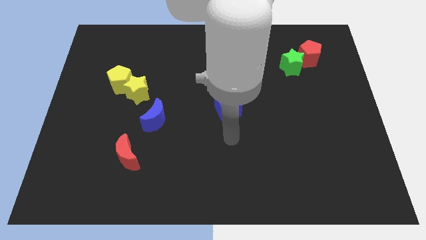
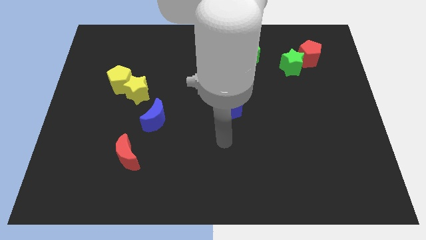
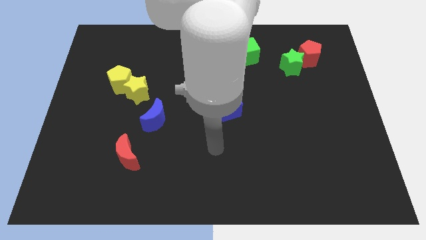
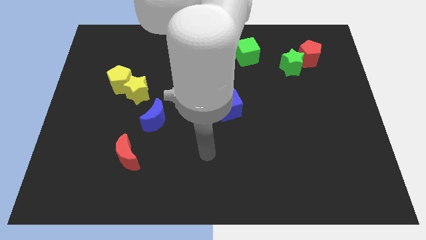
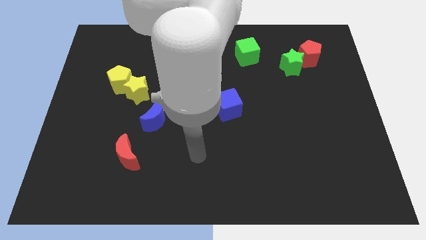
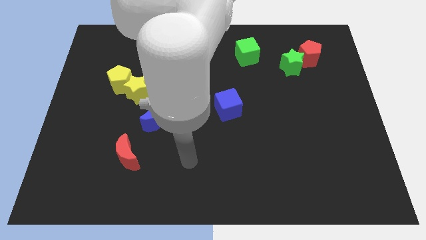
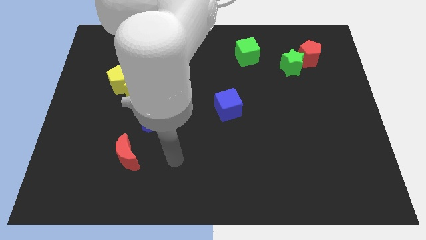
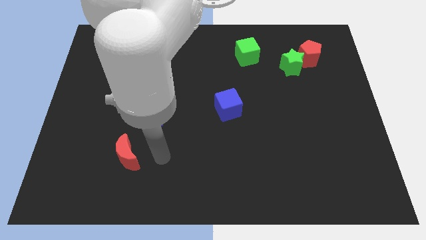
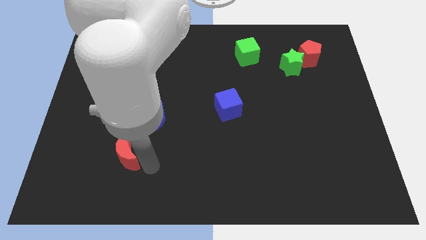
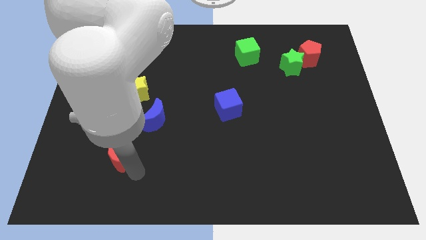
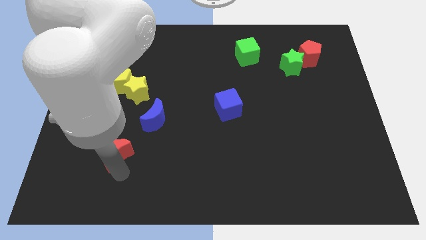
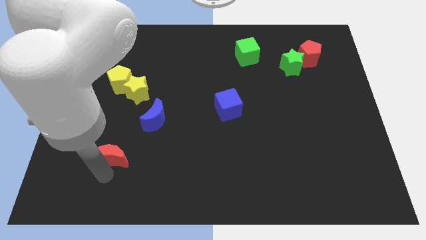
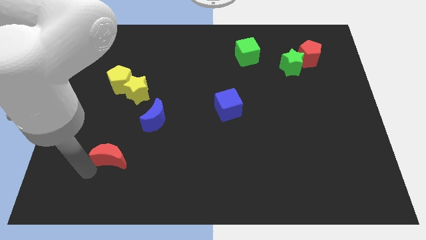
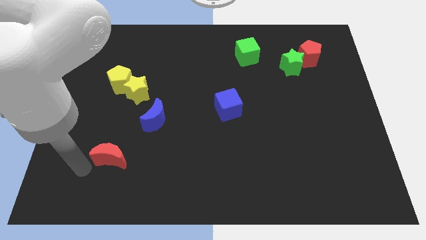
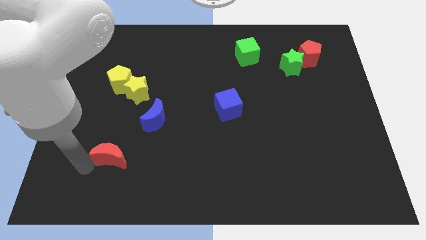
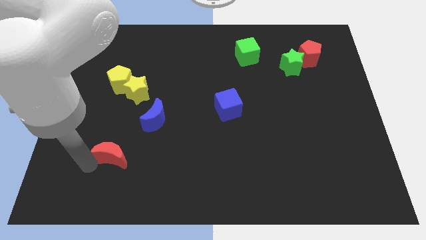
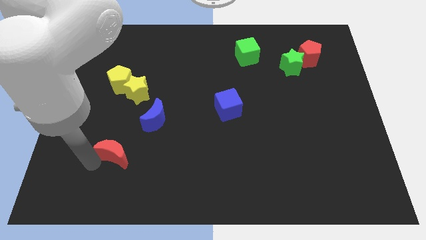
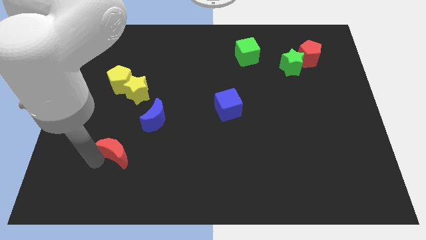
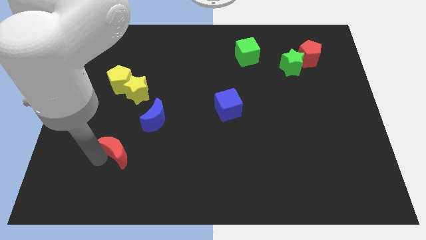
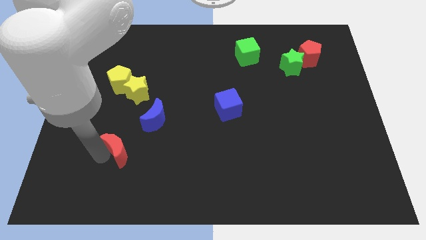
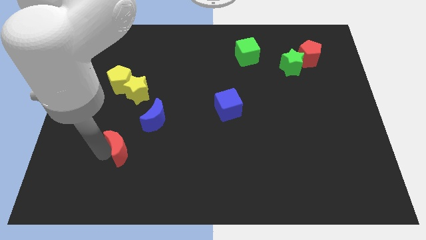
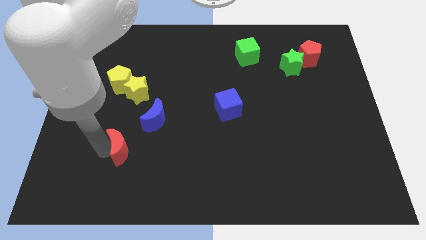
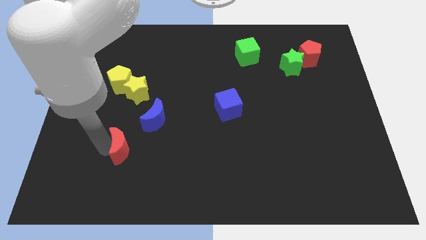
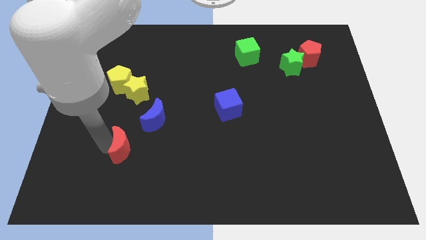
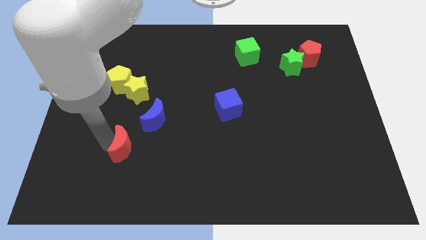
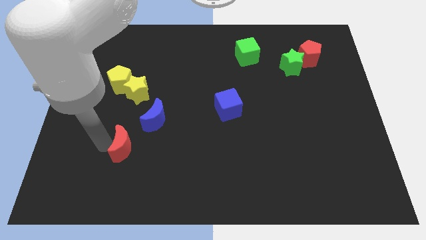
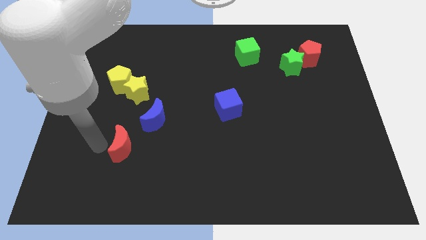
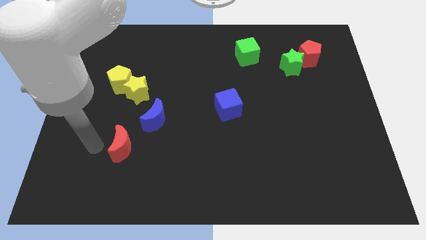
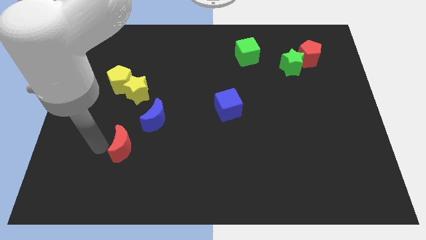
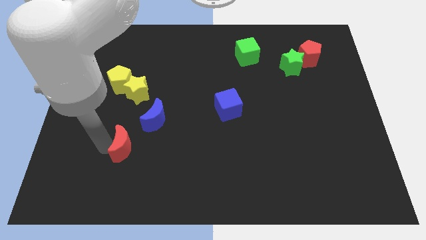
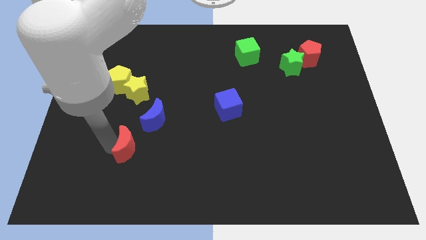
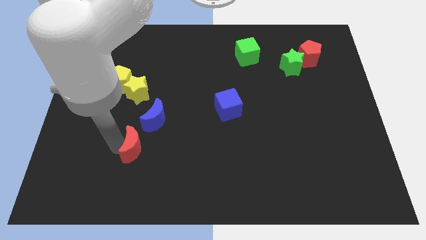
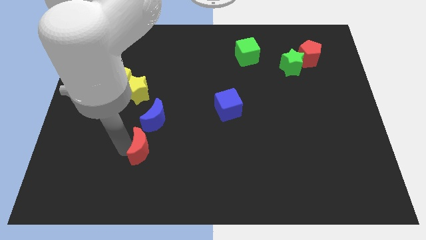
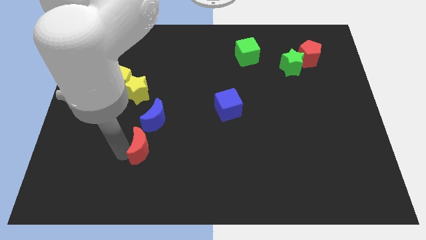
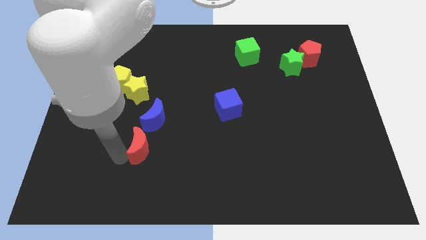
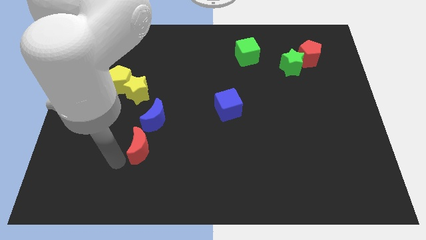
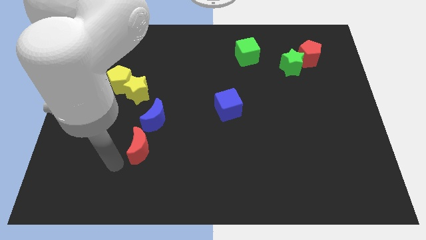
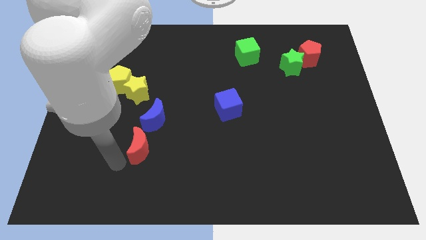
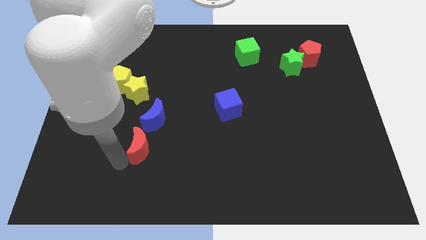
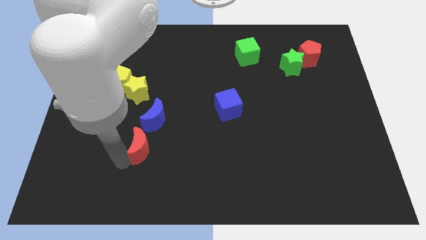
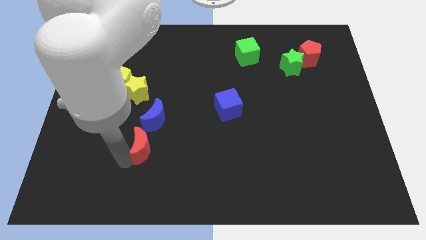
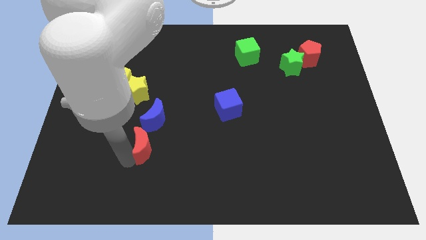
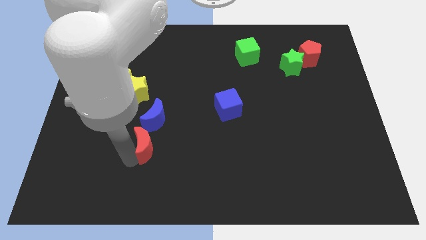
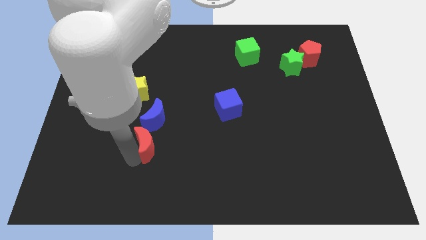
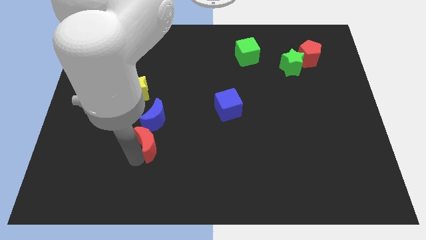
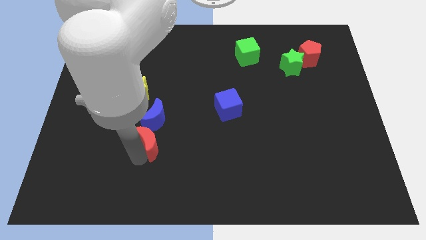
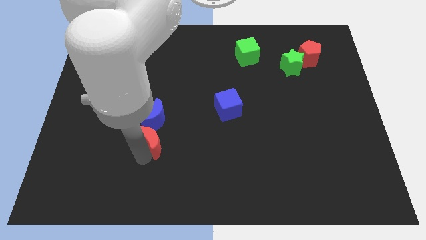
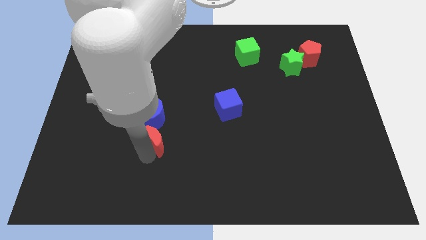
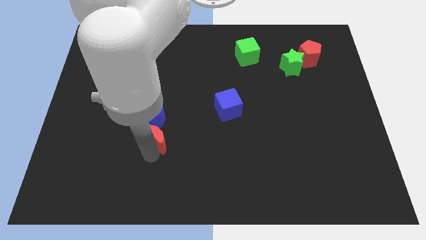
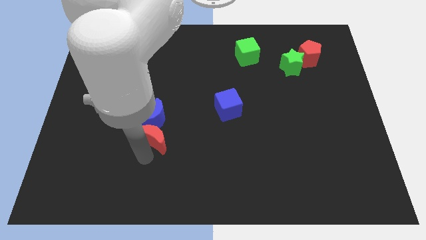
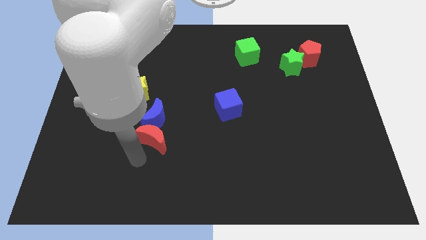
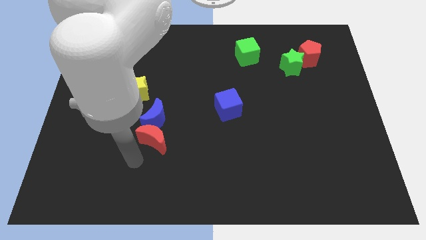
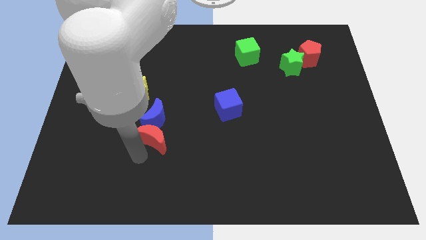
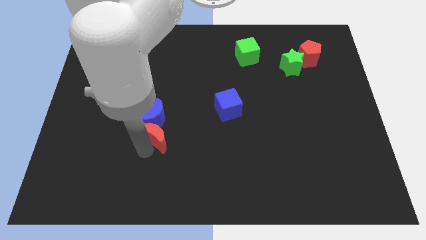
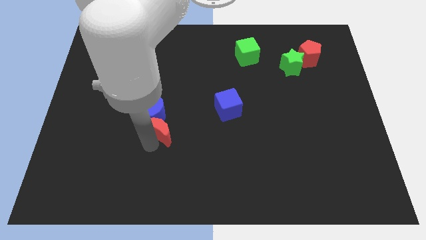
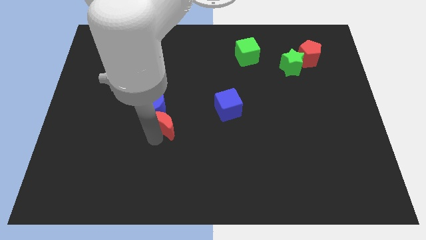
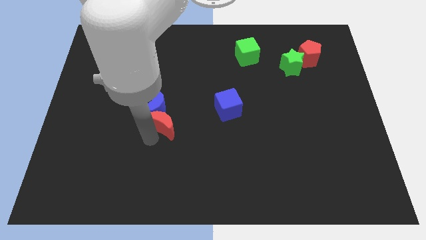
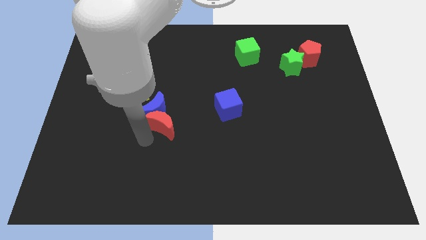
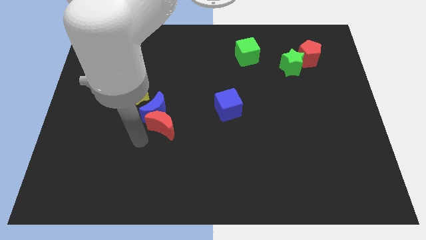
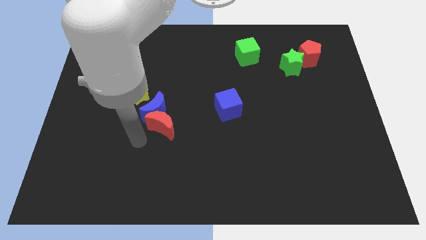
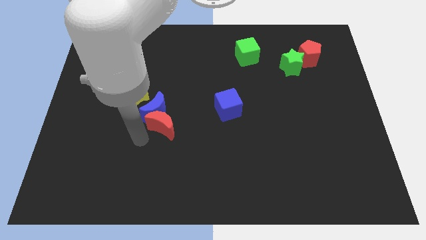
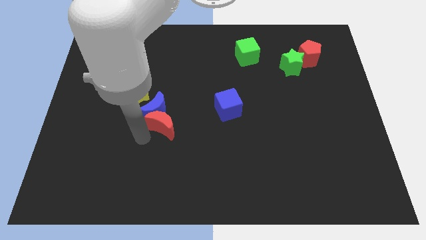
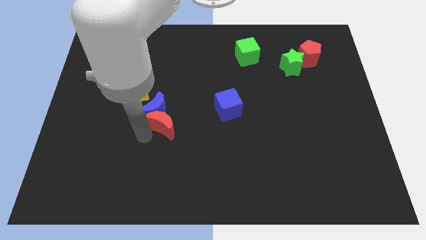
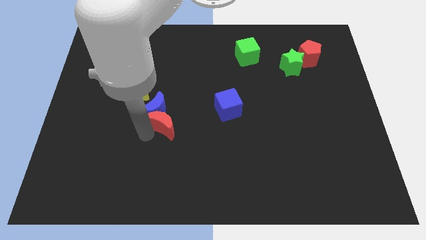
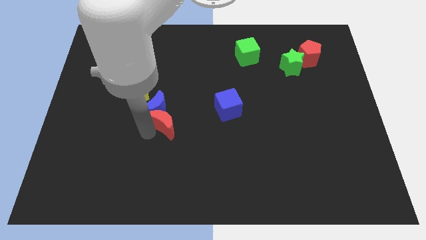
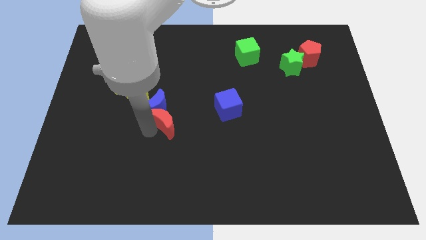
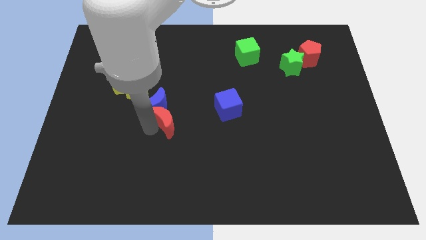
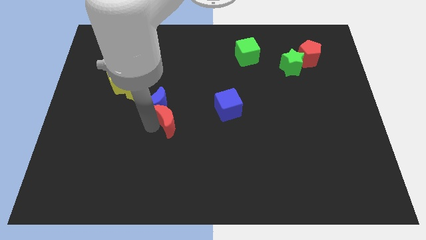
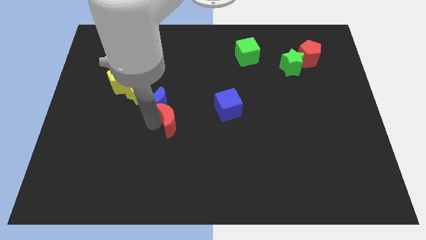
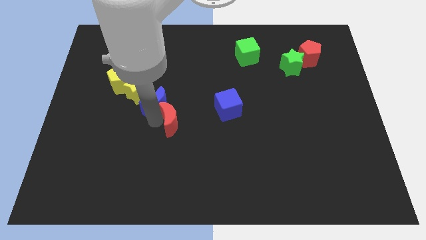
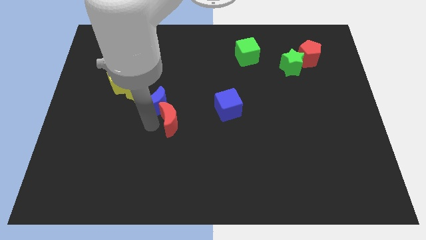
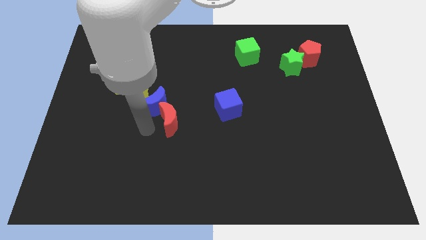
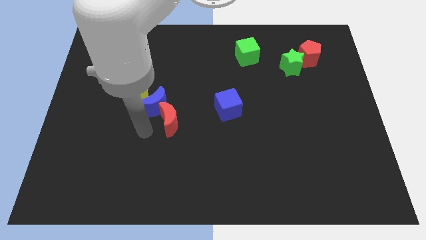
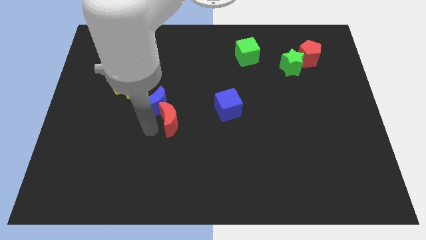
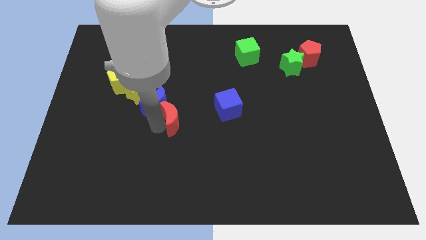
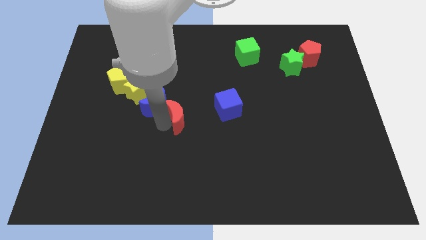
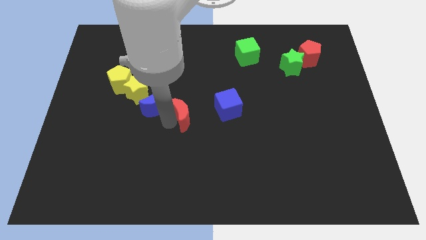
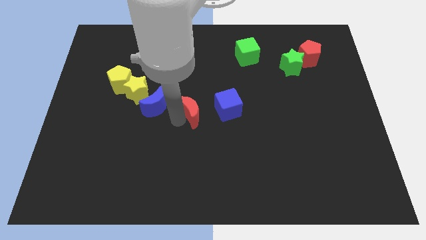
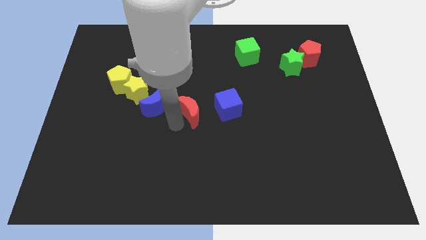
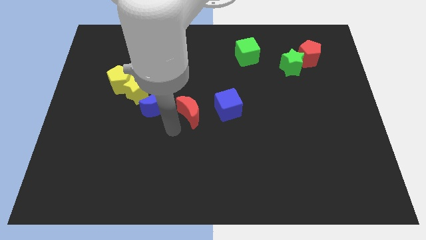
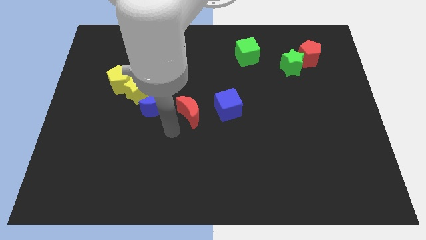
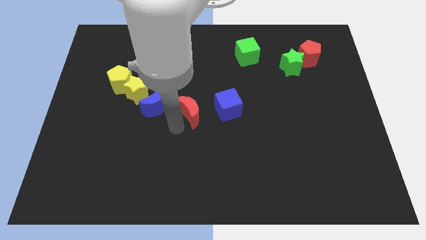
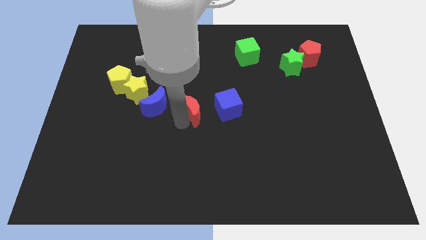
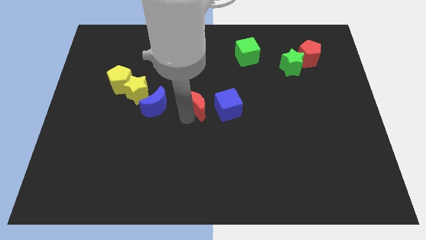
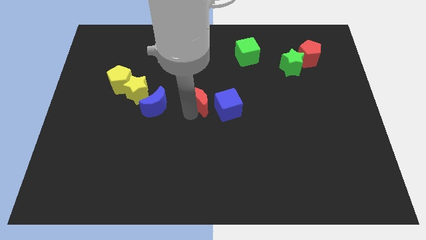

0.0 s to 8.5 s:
move the red moon up and right
